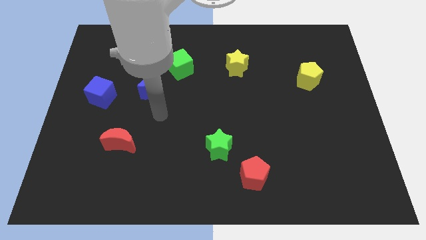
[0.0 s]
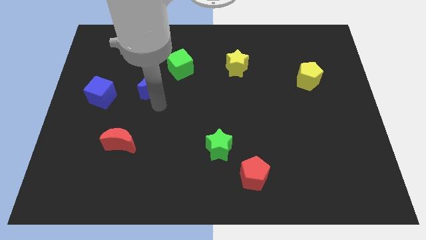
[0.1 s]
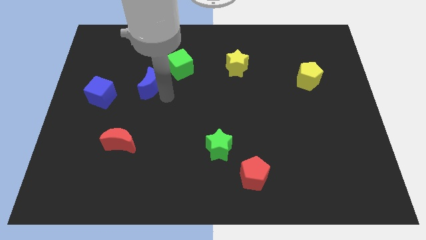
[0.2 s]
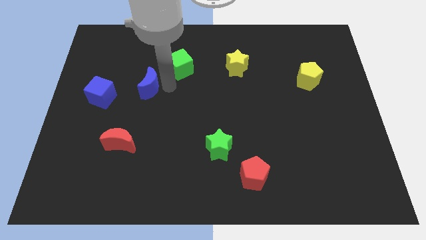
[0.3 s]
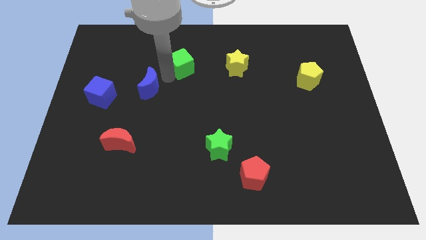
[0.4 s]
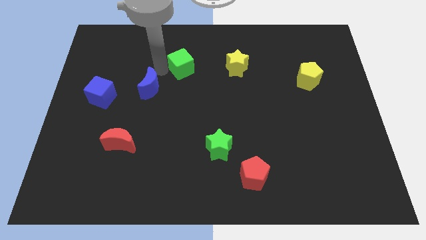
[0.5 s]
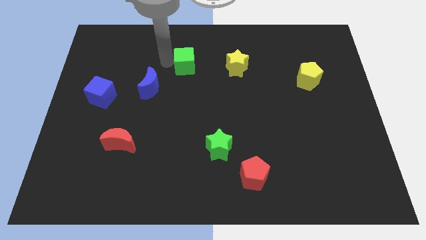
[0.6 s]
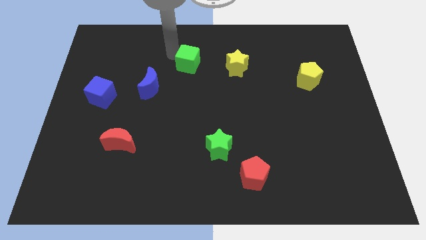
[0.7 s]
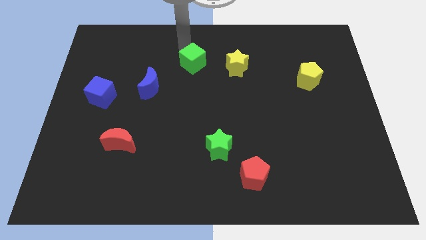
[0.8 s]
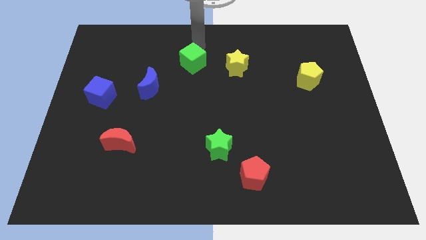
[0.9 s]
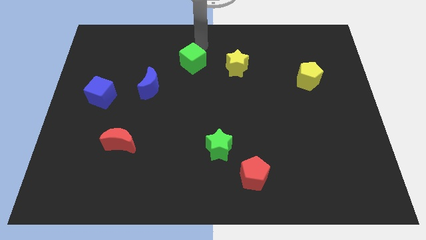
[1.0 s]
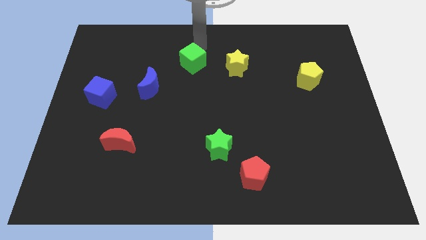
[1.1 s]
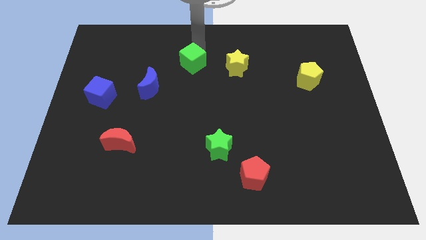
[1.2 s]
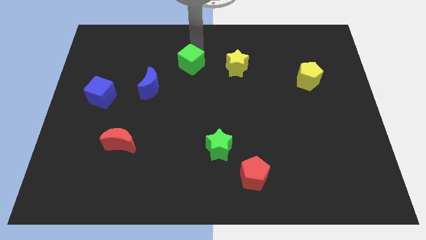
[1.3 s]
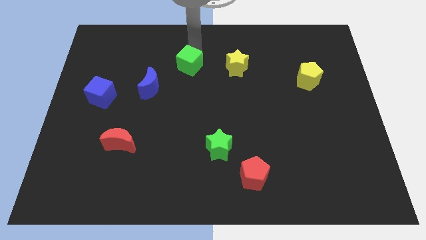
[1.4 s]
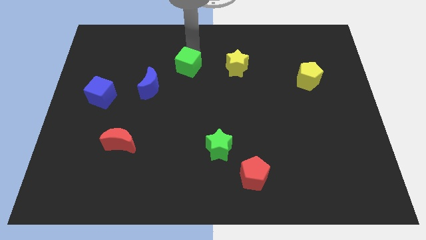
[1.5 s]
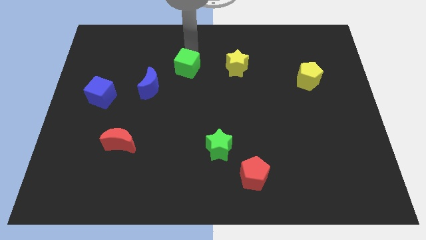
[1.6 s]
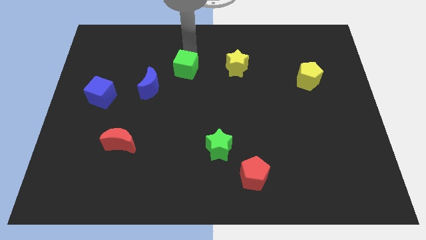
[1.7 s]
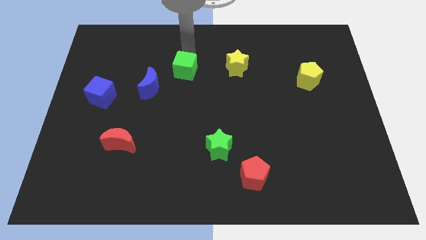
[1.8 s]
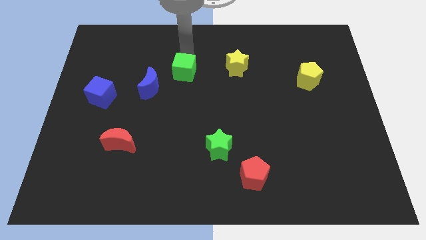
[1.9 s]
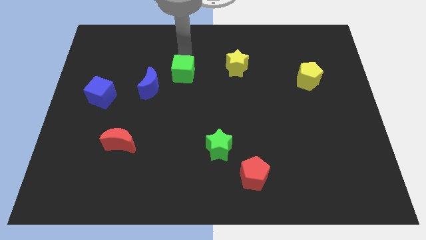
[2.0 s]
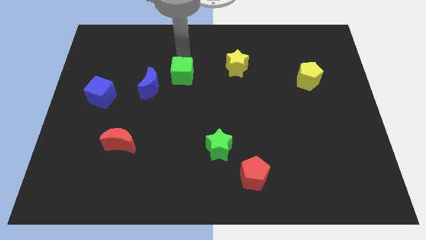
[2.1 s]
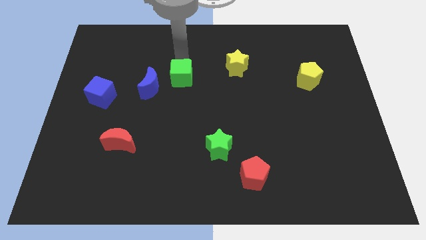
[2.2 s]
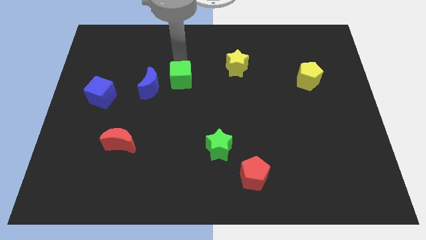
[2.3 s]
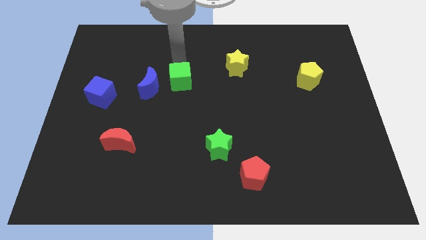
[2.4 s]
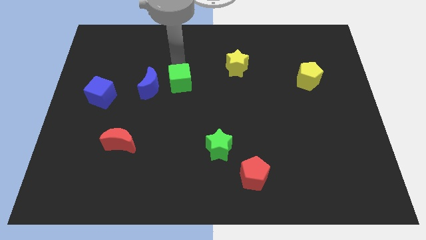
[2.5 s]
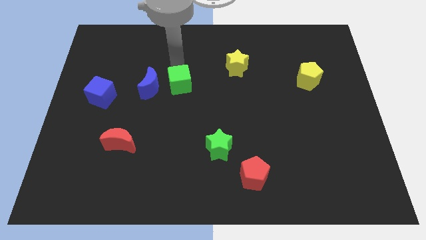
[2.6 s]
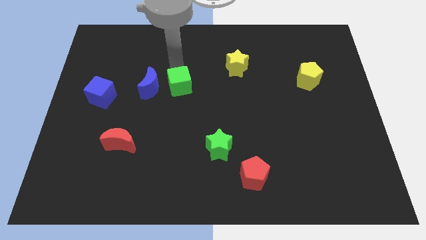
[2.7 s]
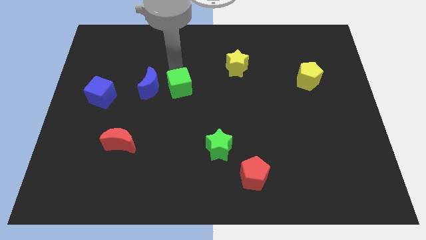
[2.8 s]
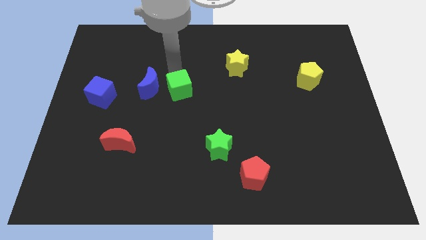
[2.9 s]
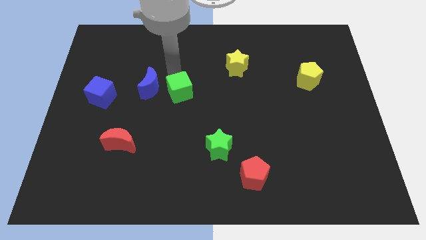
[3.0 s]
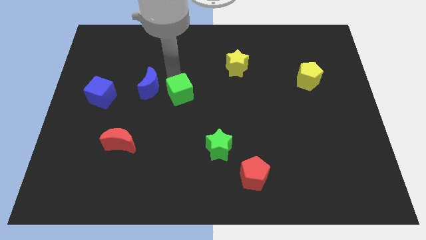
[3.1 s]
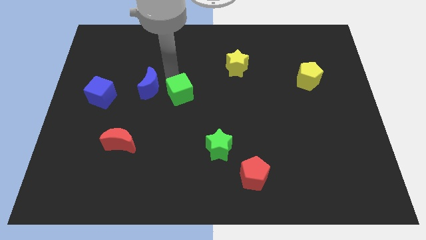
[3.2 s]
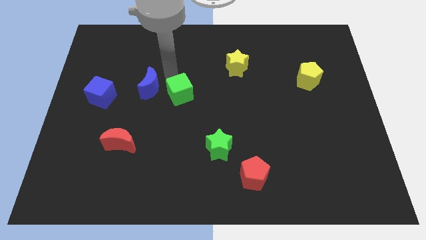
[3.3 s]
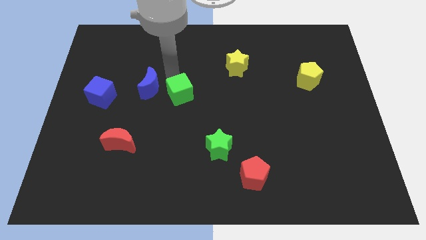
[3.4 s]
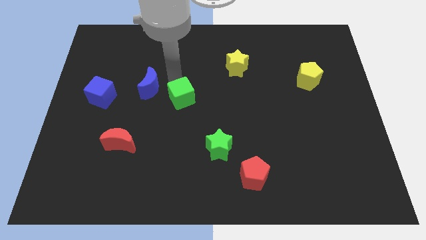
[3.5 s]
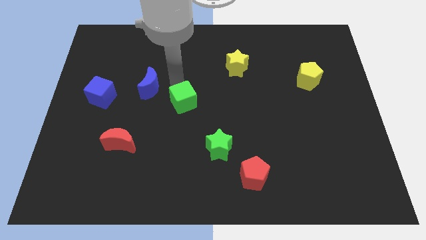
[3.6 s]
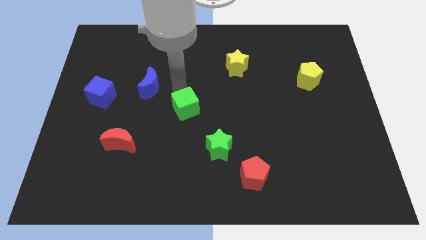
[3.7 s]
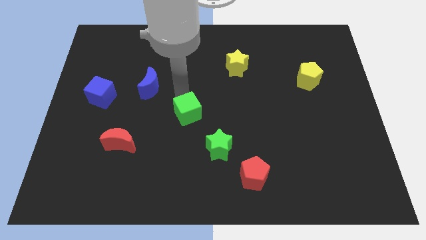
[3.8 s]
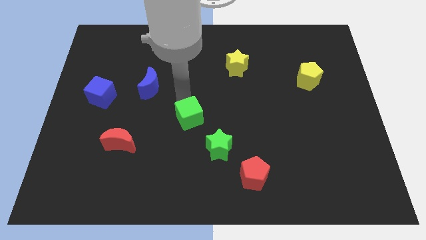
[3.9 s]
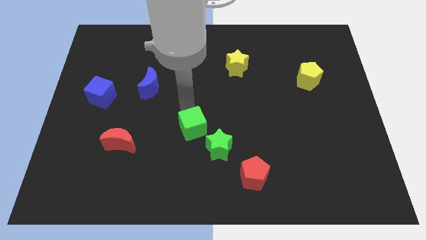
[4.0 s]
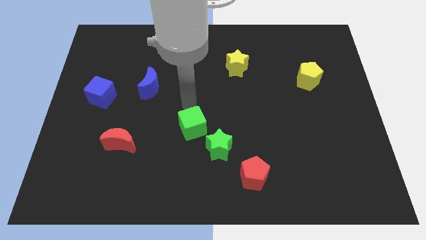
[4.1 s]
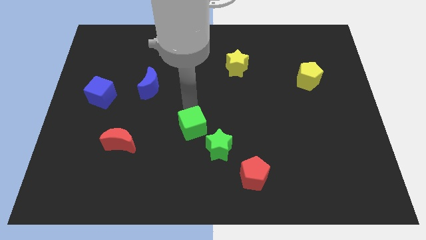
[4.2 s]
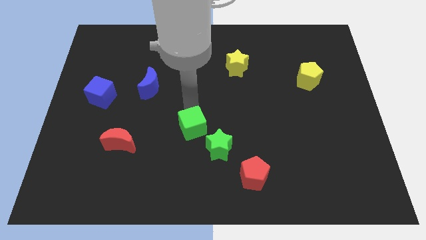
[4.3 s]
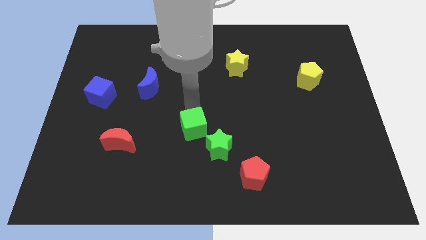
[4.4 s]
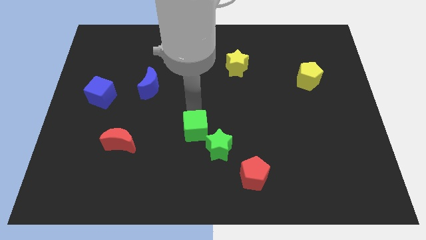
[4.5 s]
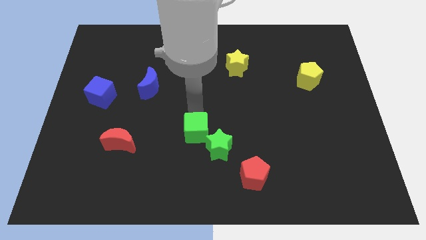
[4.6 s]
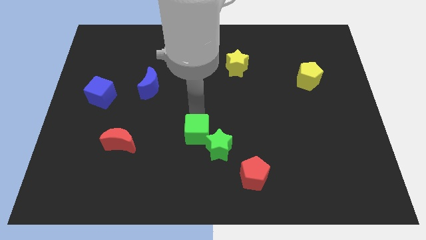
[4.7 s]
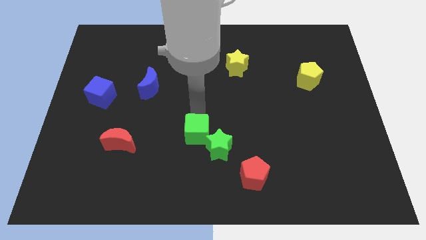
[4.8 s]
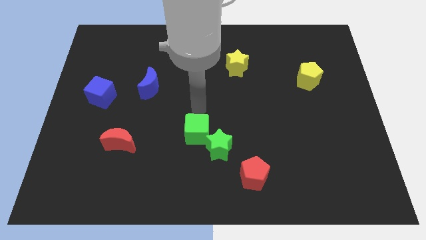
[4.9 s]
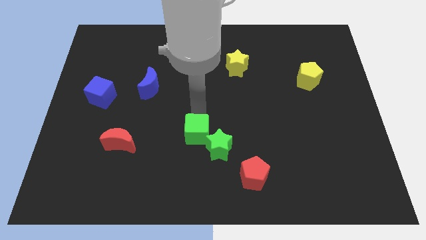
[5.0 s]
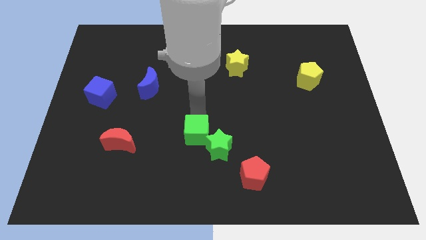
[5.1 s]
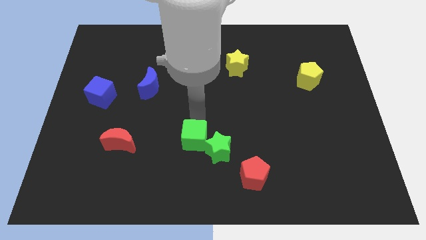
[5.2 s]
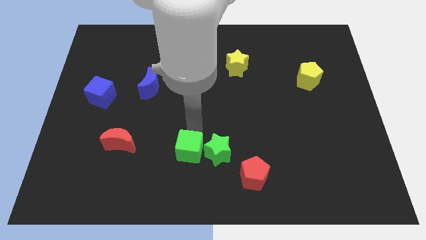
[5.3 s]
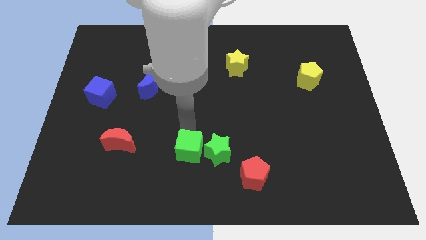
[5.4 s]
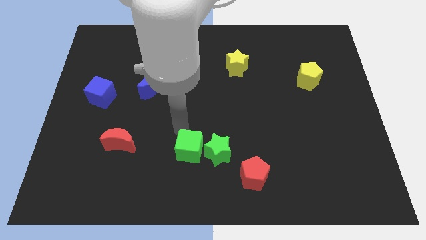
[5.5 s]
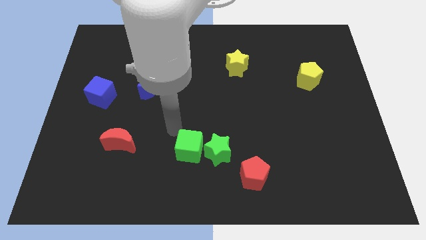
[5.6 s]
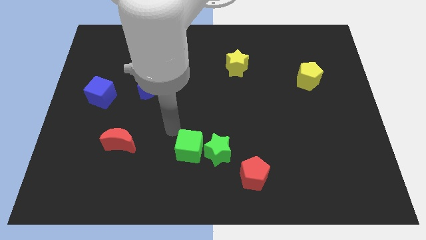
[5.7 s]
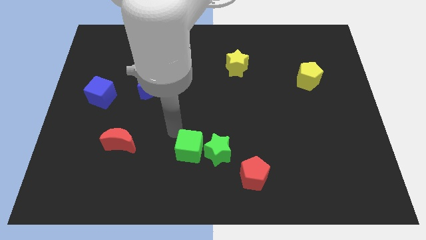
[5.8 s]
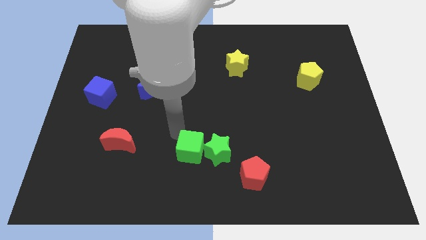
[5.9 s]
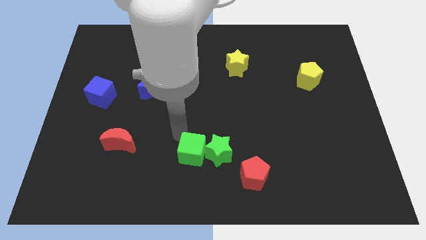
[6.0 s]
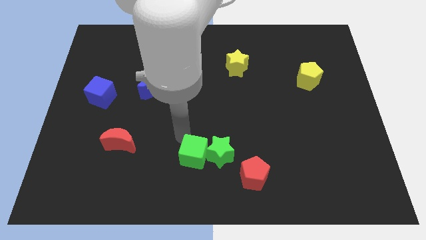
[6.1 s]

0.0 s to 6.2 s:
push the green cube to the bottom

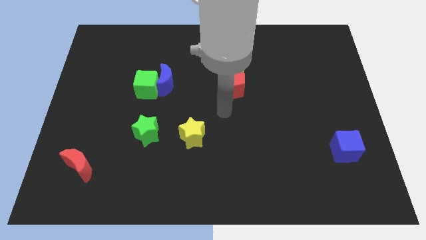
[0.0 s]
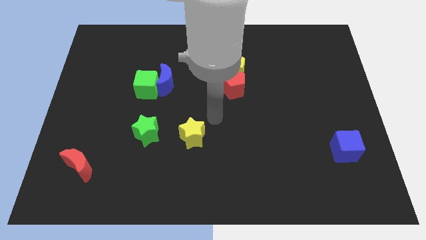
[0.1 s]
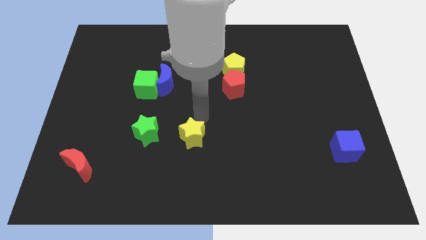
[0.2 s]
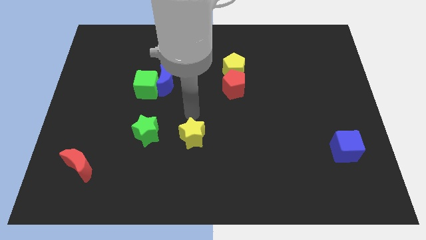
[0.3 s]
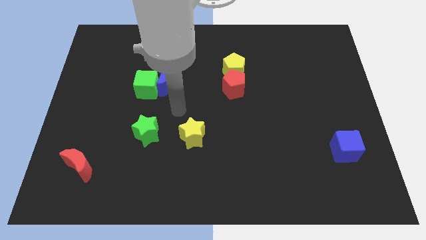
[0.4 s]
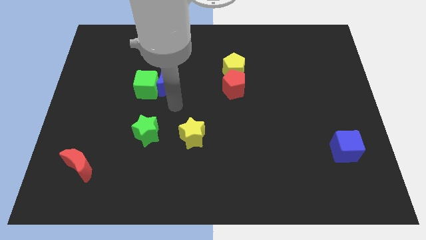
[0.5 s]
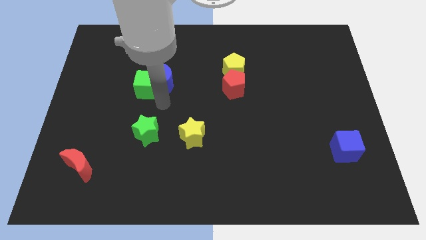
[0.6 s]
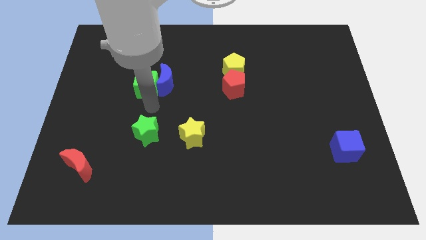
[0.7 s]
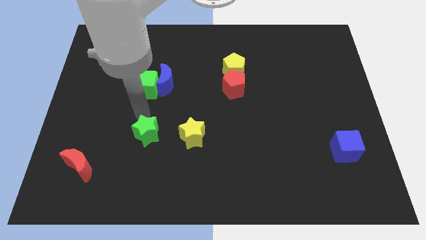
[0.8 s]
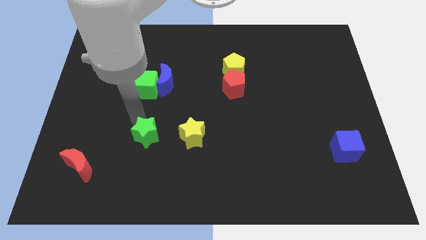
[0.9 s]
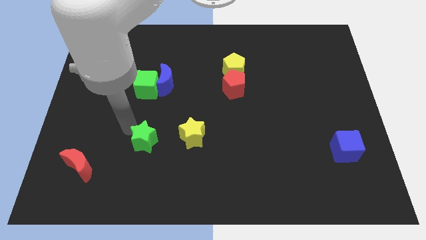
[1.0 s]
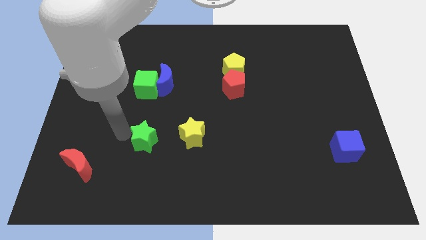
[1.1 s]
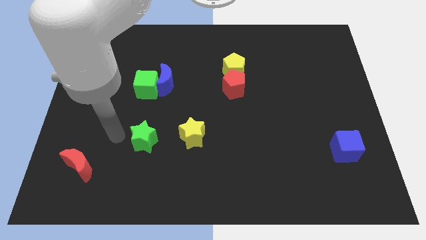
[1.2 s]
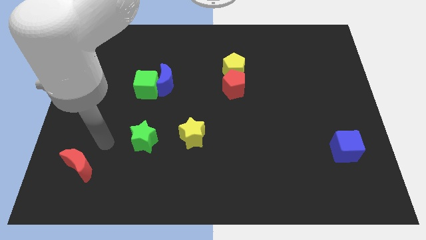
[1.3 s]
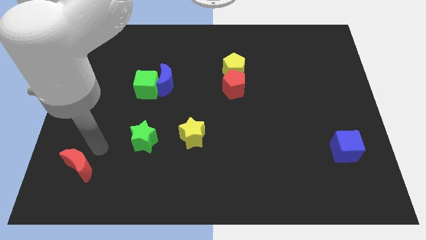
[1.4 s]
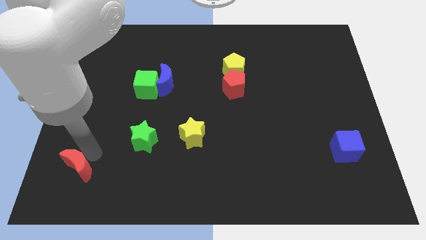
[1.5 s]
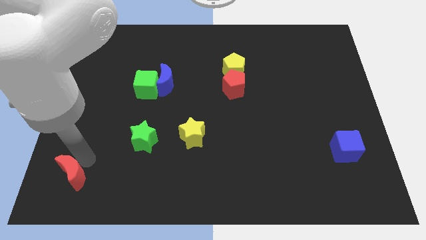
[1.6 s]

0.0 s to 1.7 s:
put the red moon to the bottom left corner
